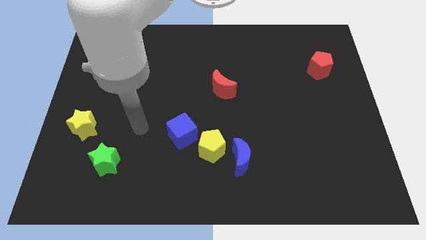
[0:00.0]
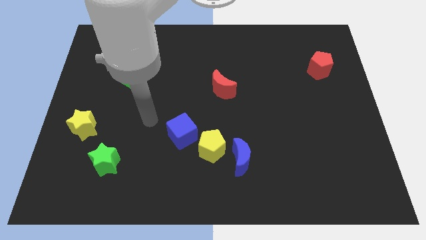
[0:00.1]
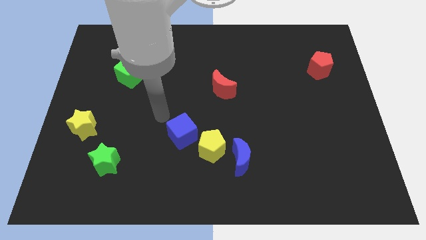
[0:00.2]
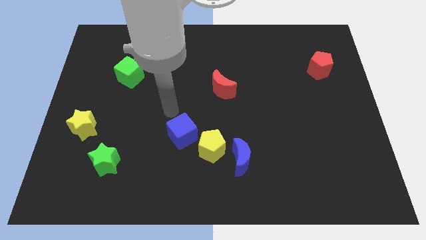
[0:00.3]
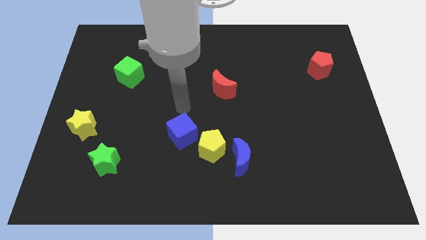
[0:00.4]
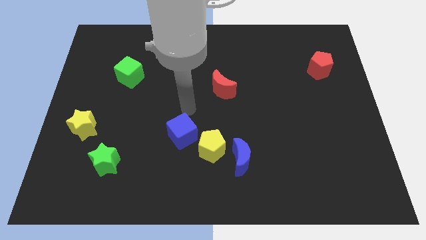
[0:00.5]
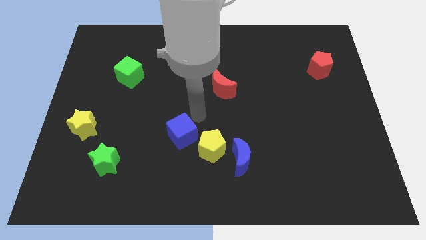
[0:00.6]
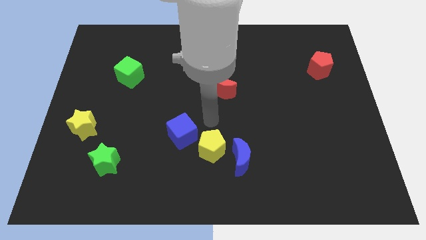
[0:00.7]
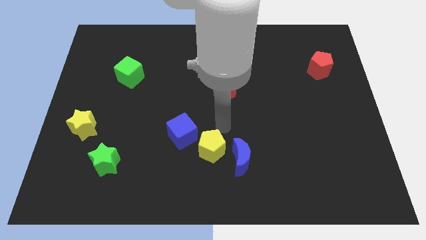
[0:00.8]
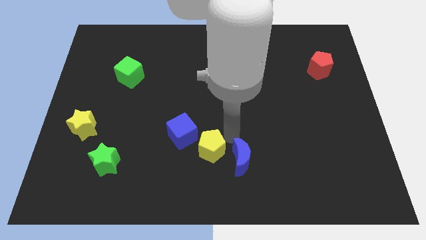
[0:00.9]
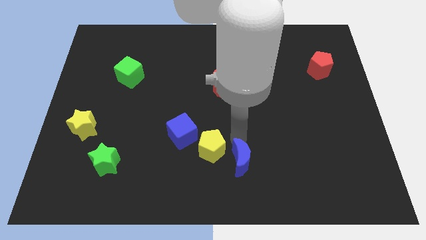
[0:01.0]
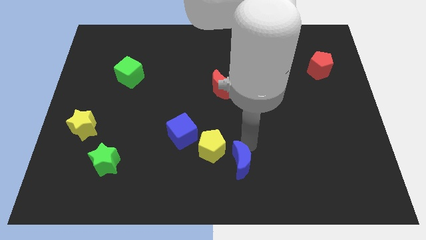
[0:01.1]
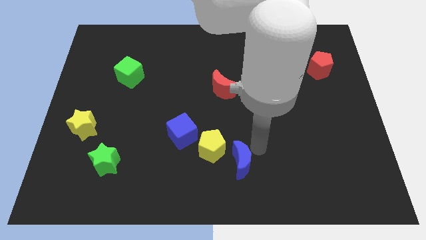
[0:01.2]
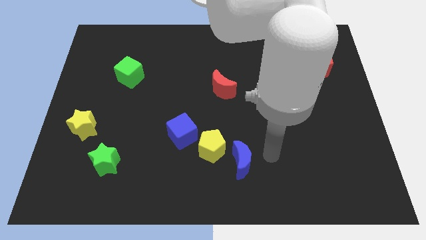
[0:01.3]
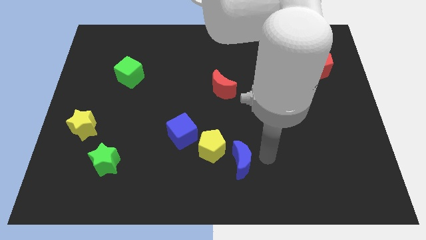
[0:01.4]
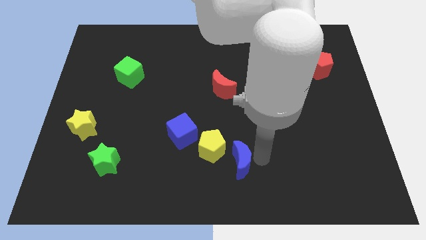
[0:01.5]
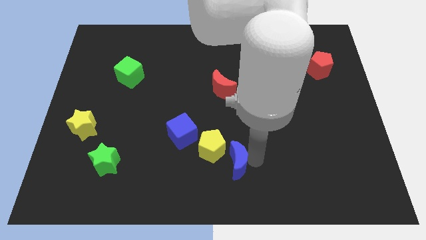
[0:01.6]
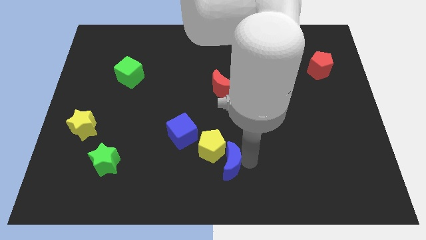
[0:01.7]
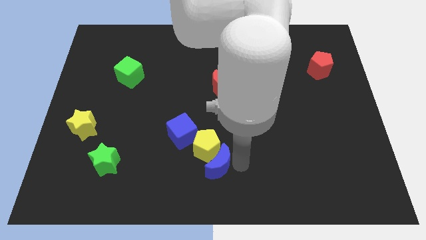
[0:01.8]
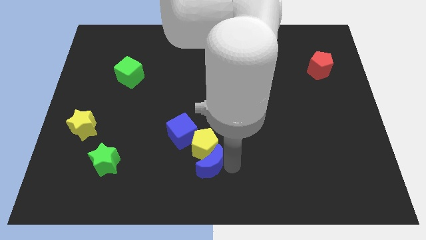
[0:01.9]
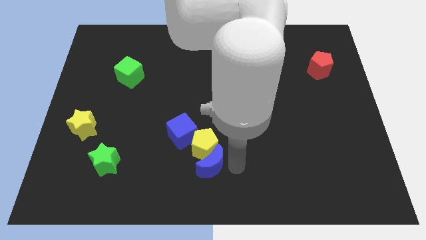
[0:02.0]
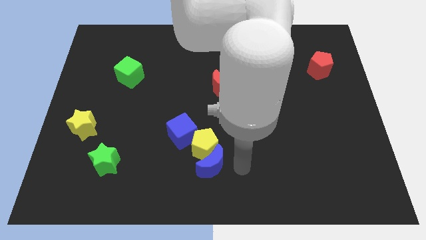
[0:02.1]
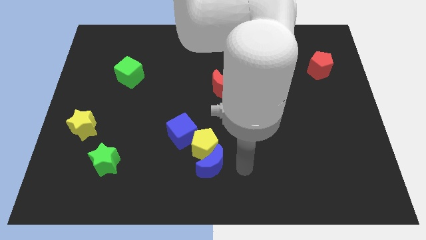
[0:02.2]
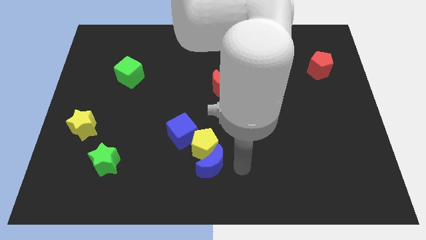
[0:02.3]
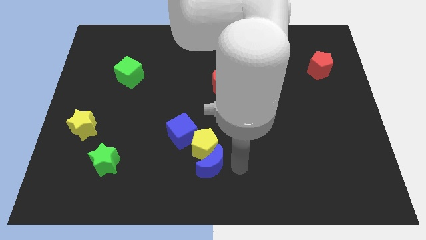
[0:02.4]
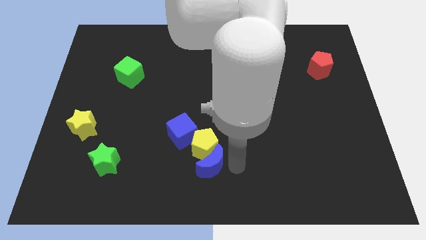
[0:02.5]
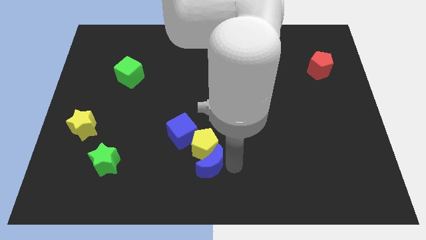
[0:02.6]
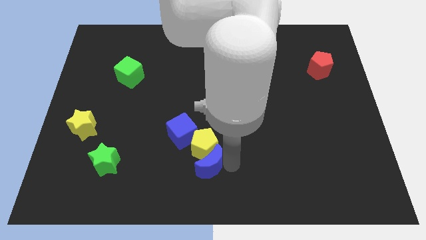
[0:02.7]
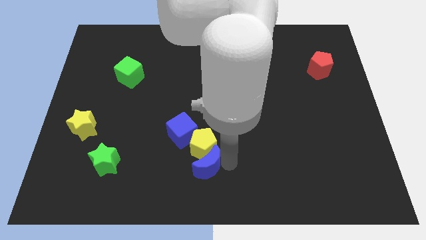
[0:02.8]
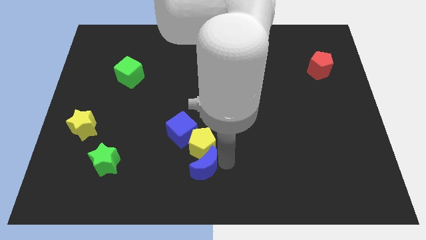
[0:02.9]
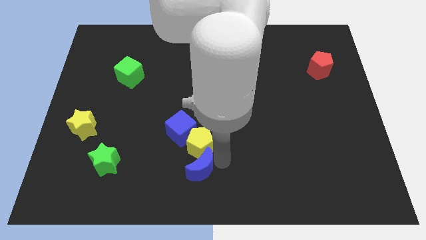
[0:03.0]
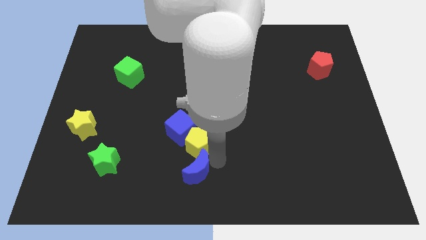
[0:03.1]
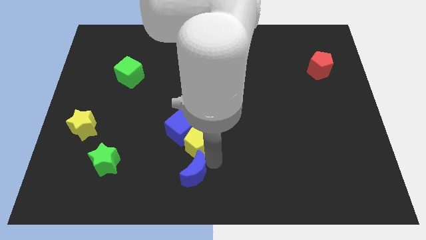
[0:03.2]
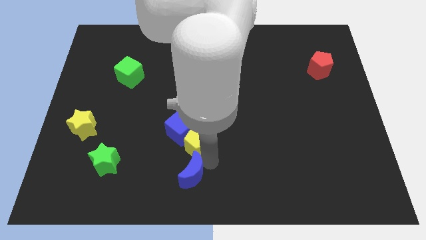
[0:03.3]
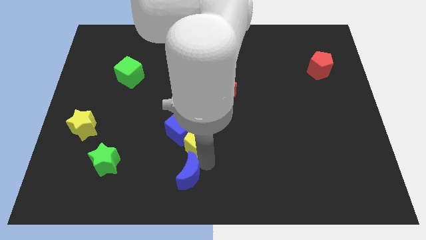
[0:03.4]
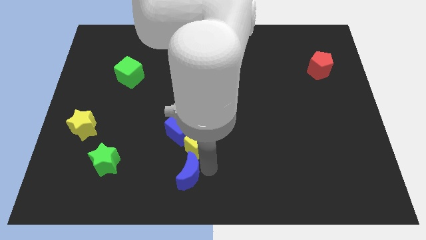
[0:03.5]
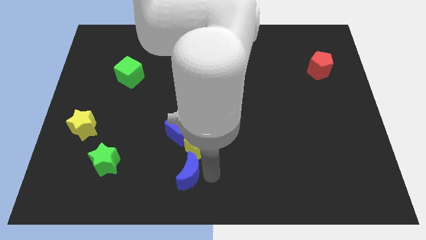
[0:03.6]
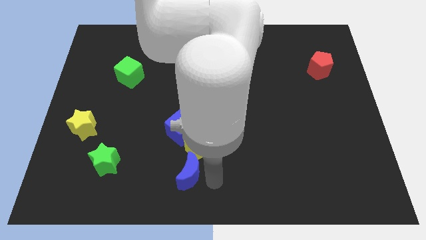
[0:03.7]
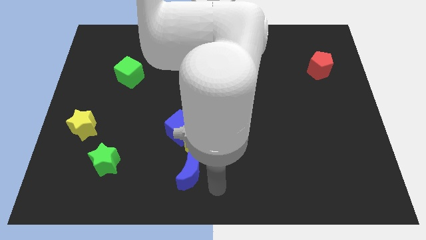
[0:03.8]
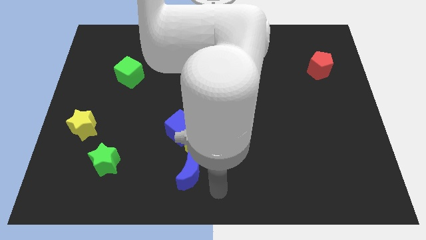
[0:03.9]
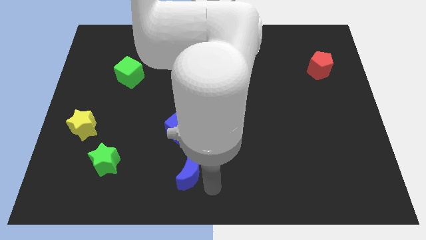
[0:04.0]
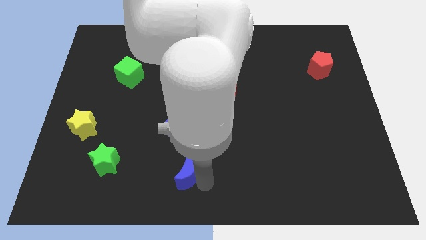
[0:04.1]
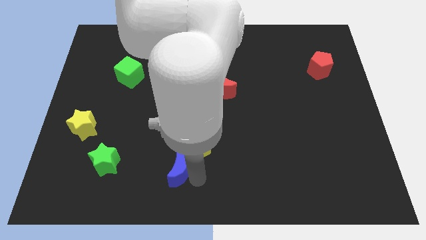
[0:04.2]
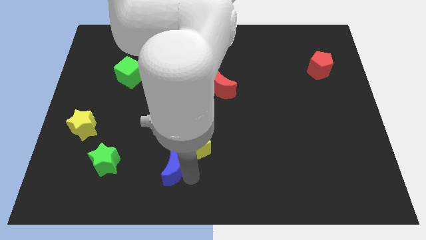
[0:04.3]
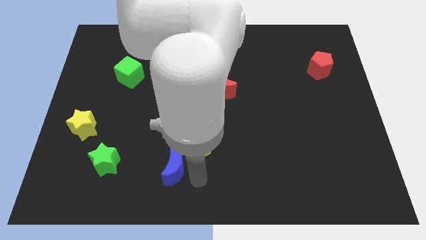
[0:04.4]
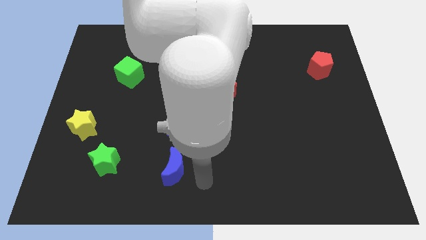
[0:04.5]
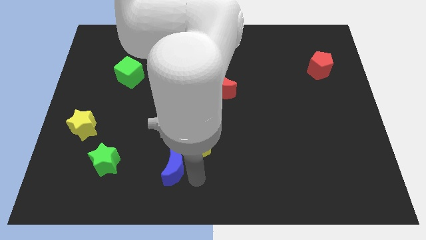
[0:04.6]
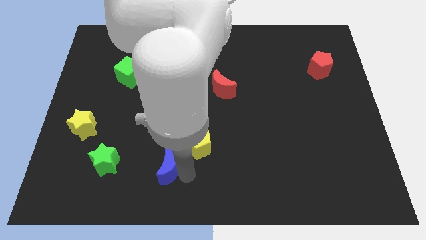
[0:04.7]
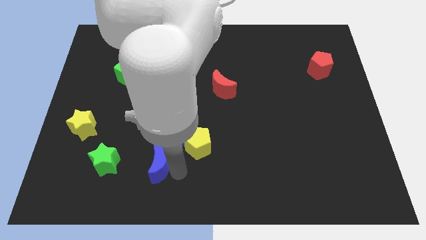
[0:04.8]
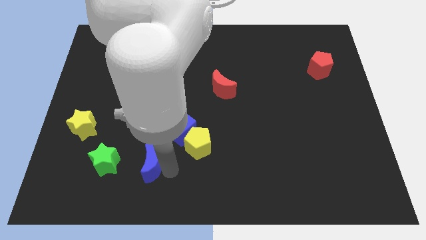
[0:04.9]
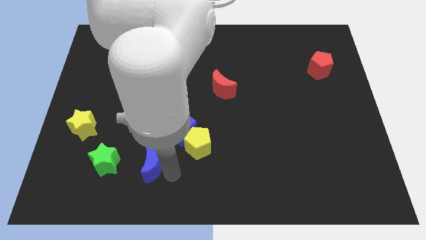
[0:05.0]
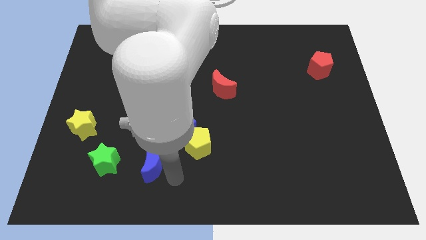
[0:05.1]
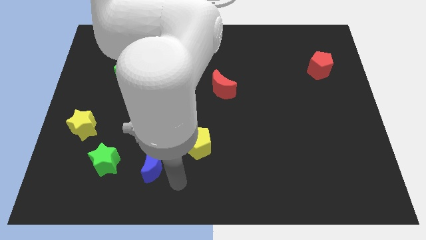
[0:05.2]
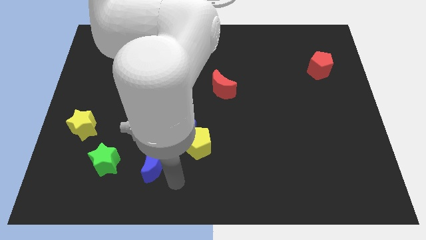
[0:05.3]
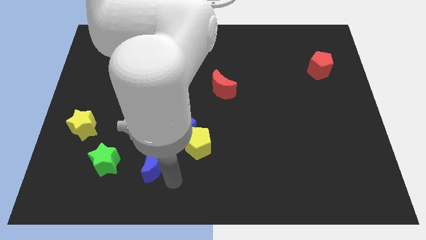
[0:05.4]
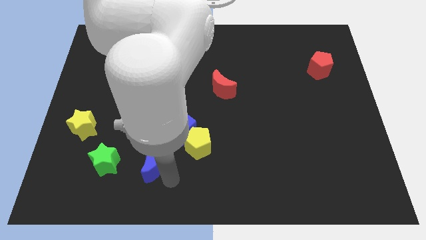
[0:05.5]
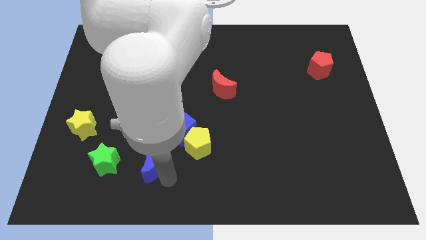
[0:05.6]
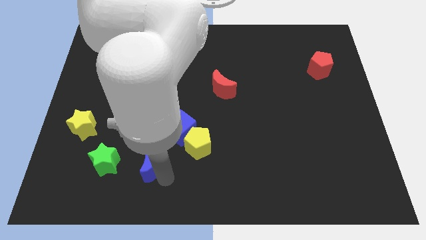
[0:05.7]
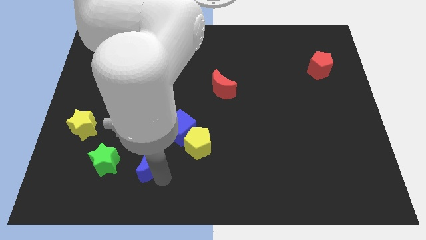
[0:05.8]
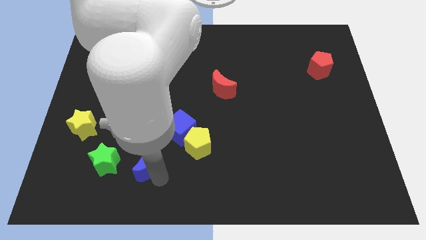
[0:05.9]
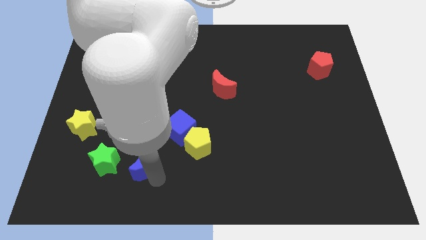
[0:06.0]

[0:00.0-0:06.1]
slide the blue moon left

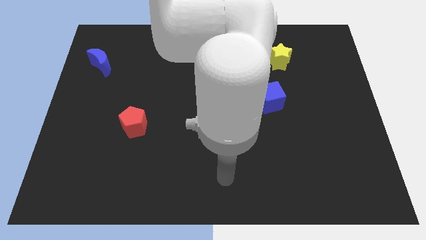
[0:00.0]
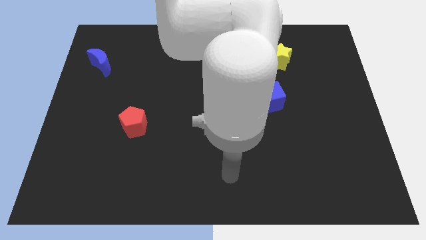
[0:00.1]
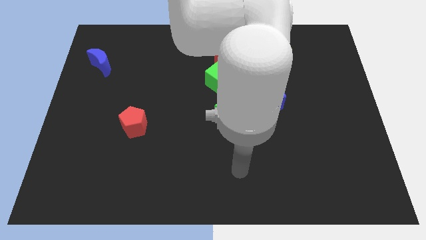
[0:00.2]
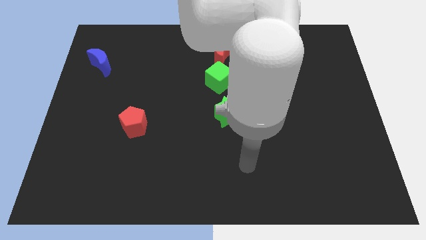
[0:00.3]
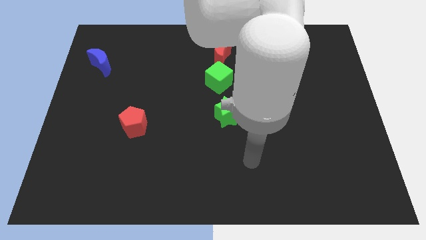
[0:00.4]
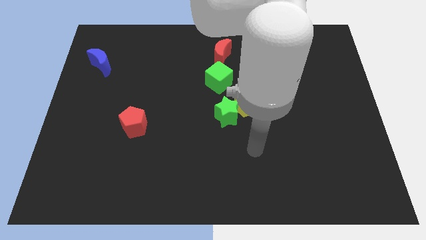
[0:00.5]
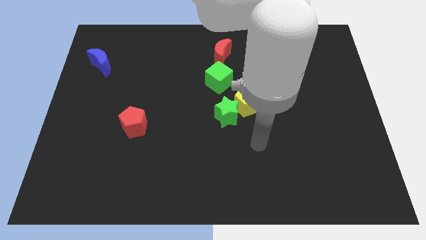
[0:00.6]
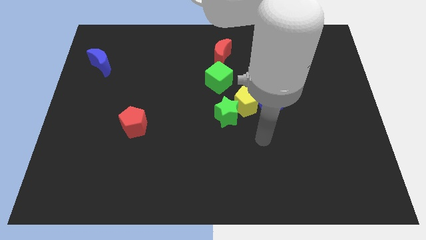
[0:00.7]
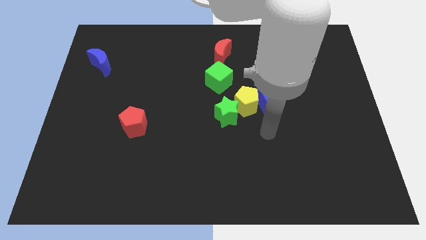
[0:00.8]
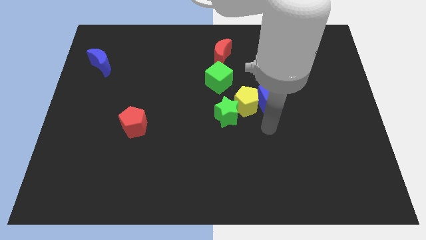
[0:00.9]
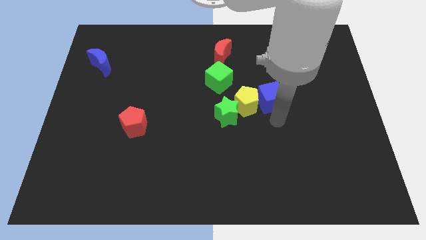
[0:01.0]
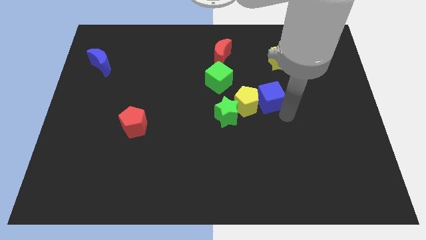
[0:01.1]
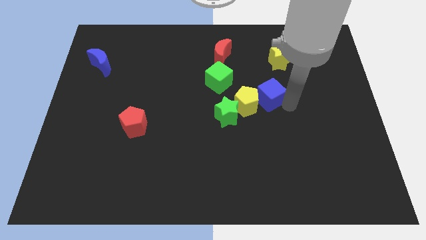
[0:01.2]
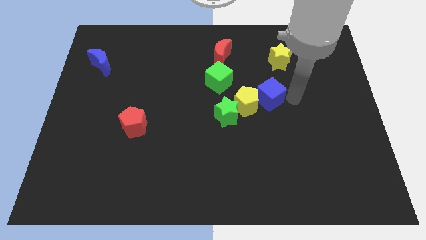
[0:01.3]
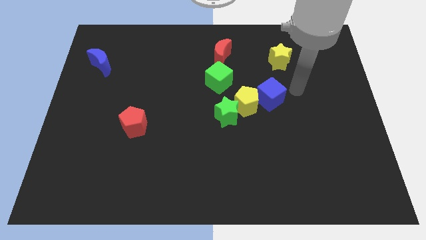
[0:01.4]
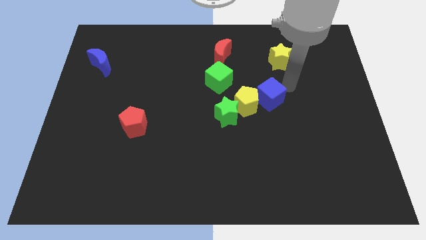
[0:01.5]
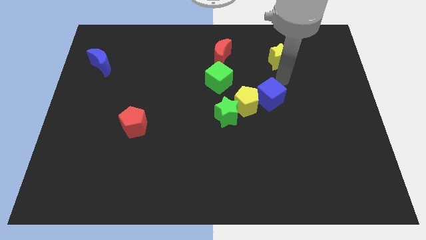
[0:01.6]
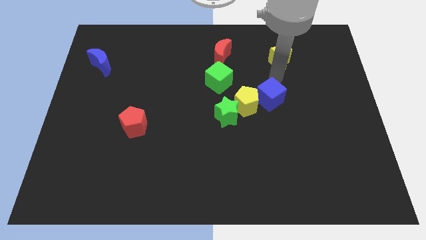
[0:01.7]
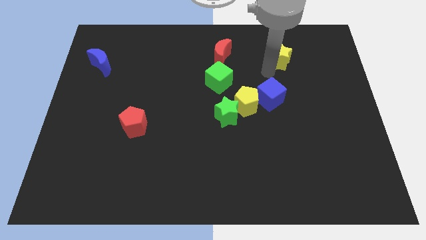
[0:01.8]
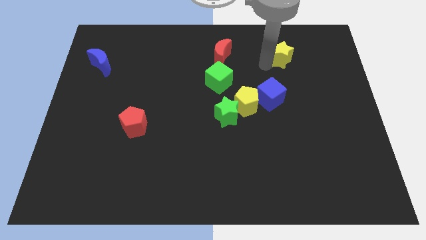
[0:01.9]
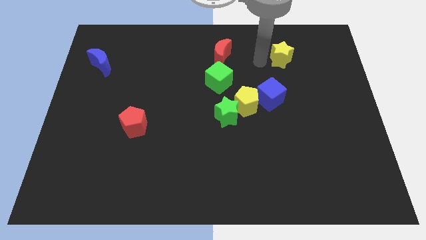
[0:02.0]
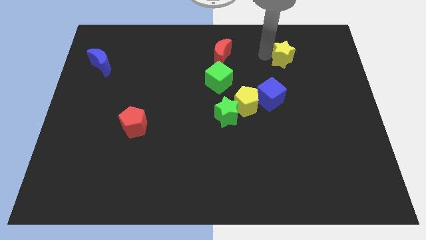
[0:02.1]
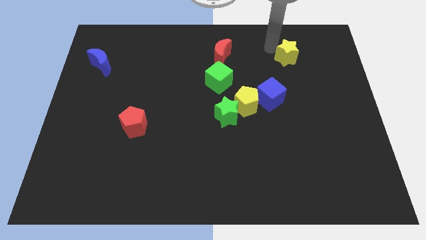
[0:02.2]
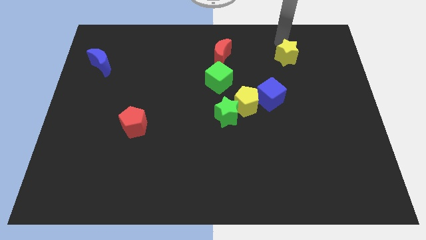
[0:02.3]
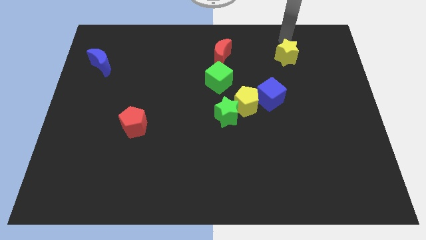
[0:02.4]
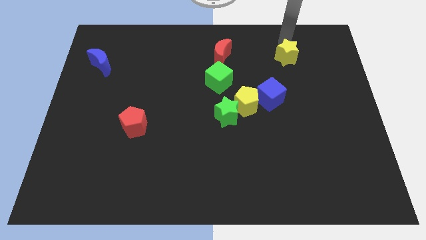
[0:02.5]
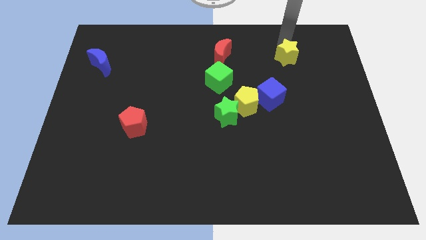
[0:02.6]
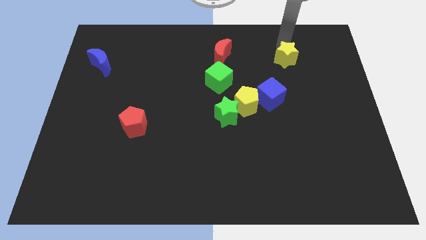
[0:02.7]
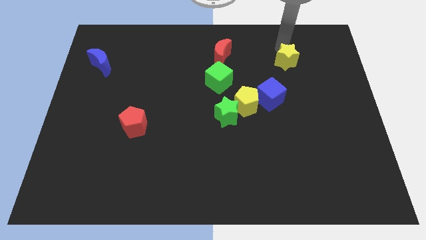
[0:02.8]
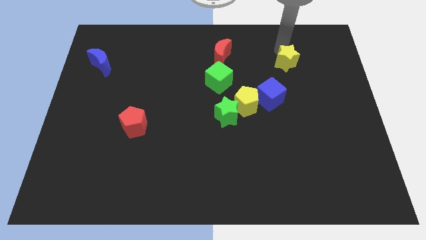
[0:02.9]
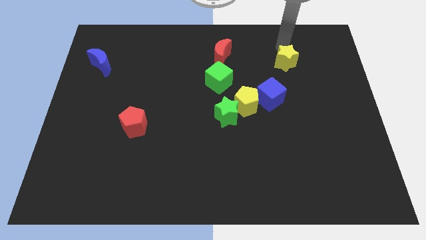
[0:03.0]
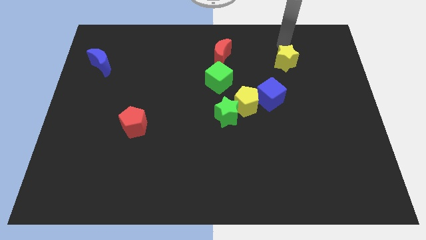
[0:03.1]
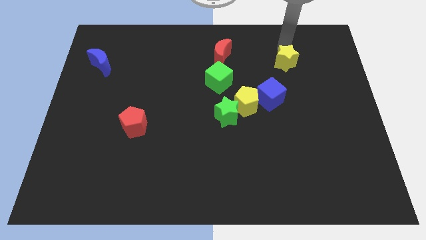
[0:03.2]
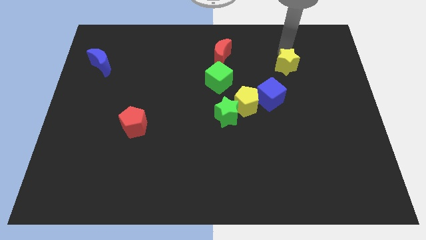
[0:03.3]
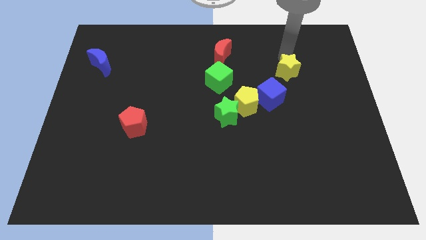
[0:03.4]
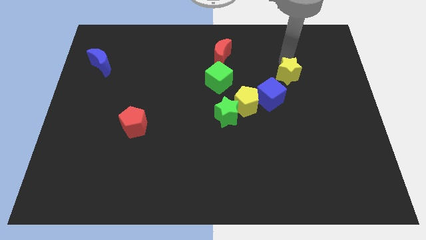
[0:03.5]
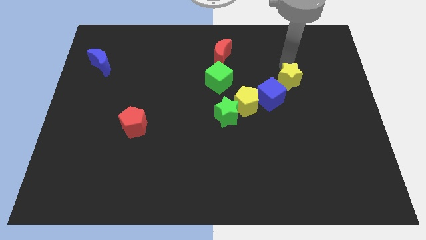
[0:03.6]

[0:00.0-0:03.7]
slide the yellow star down somewhat
